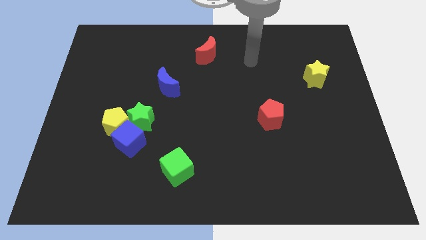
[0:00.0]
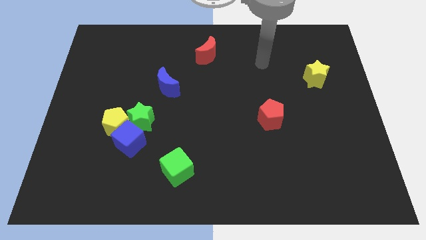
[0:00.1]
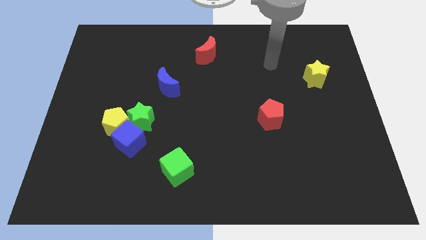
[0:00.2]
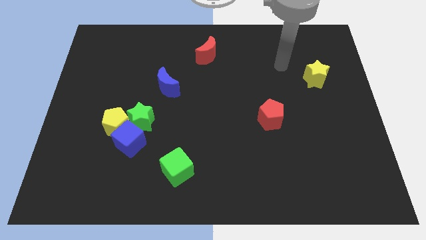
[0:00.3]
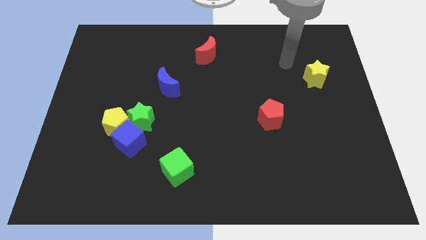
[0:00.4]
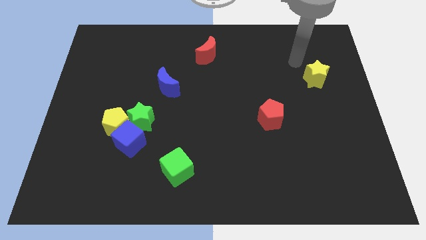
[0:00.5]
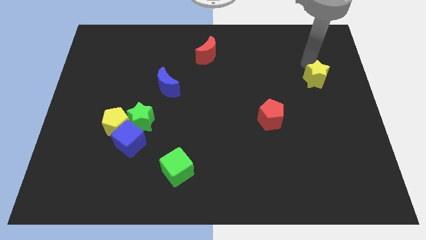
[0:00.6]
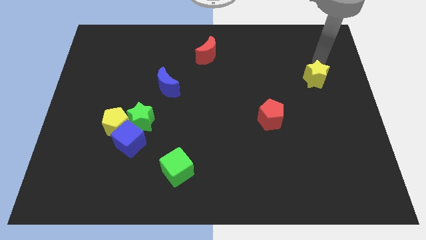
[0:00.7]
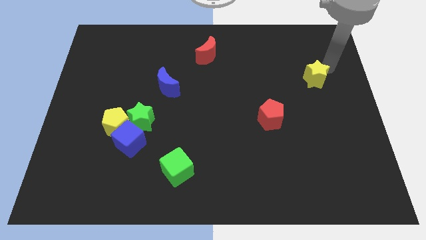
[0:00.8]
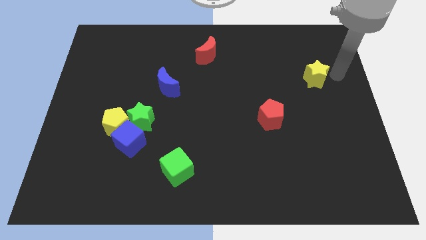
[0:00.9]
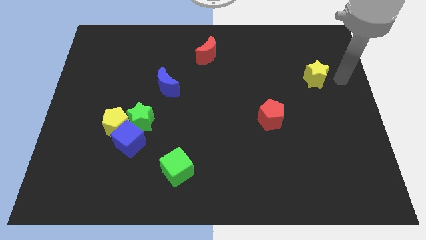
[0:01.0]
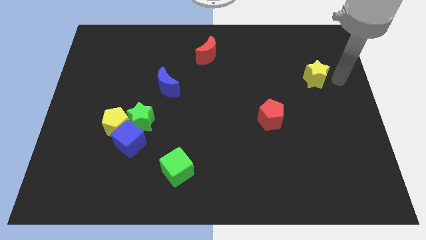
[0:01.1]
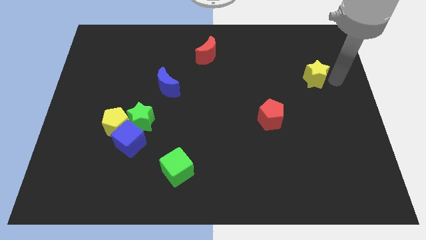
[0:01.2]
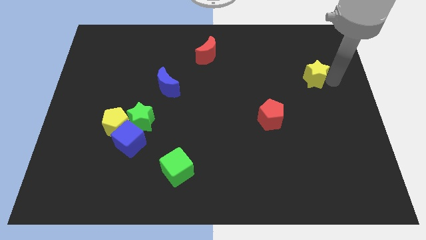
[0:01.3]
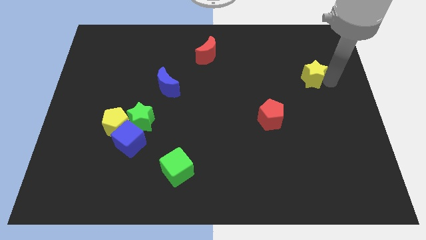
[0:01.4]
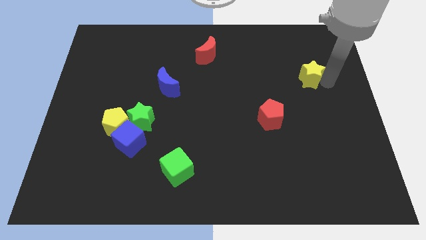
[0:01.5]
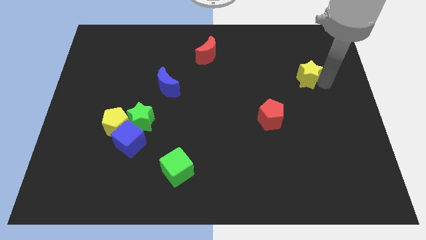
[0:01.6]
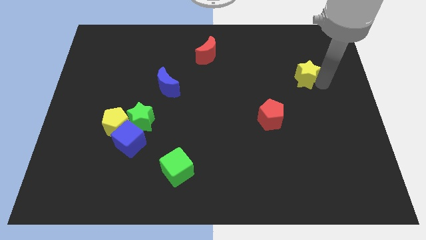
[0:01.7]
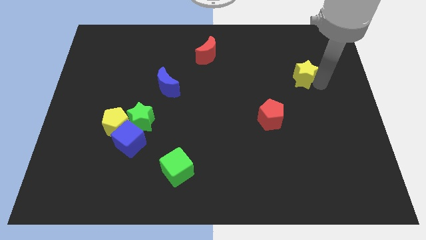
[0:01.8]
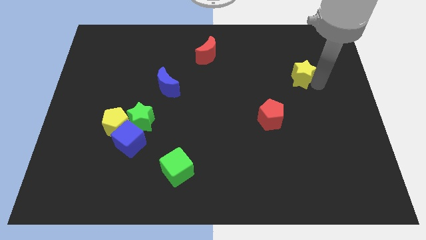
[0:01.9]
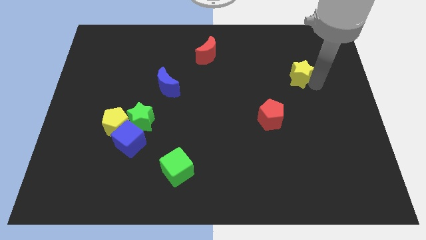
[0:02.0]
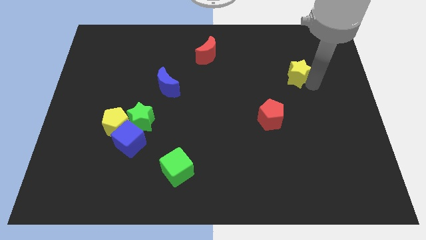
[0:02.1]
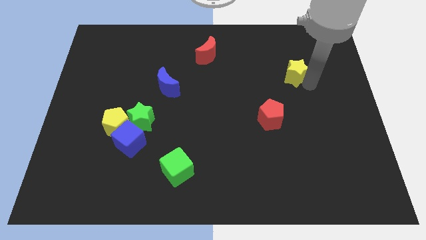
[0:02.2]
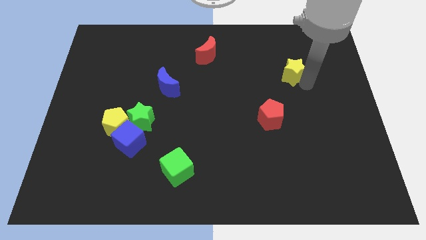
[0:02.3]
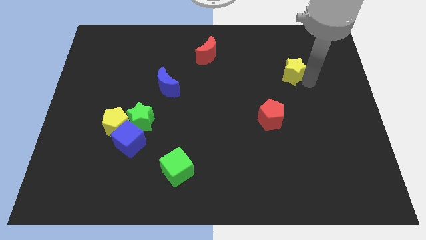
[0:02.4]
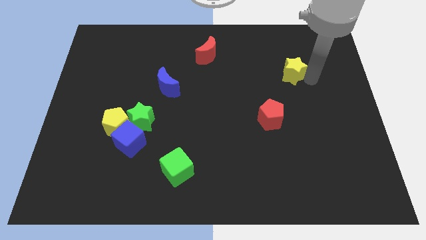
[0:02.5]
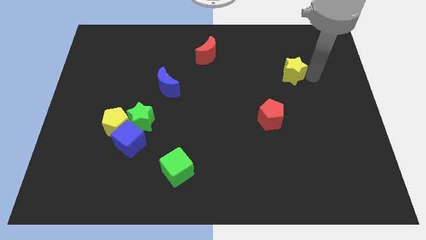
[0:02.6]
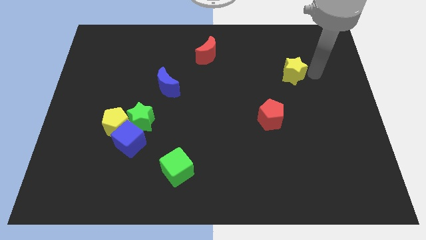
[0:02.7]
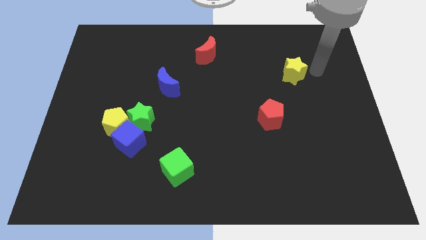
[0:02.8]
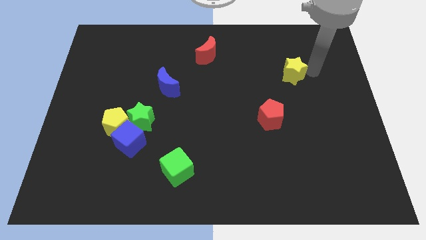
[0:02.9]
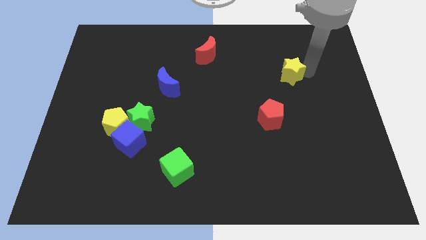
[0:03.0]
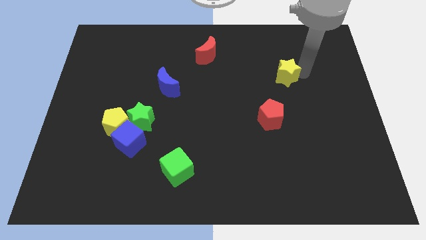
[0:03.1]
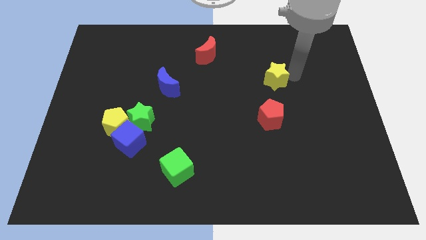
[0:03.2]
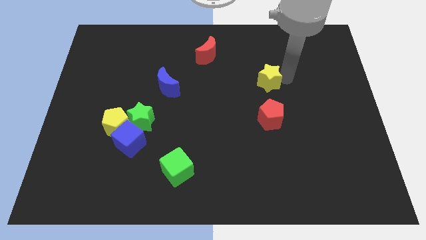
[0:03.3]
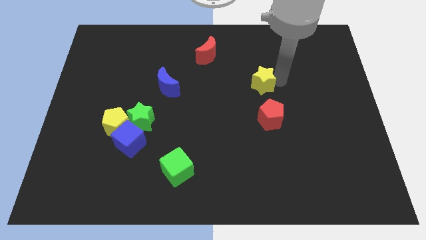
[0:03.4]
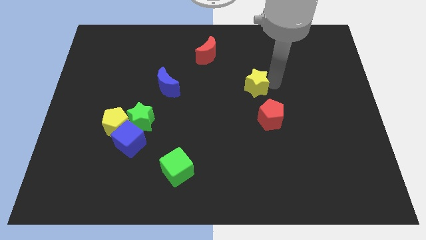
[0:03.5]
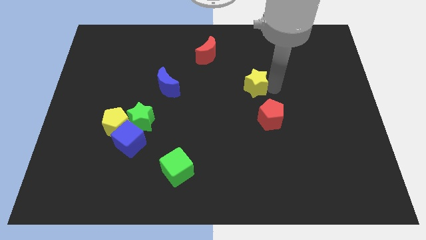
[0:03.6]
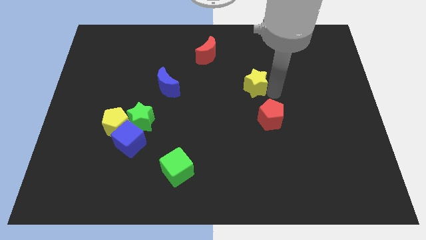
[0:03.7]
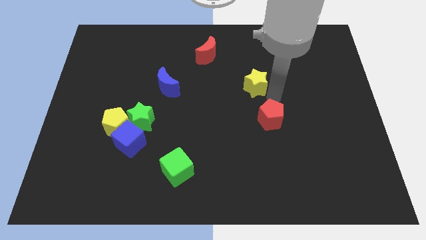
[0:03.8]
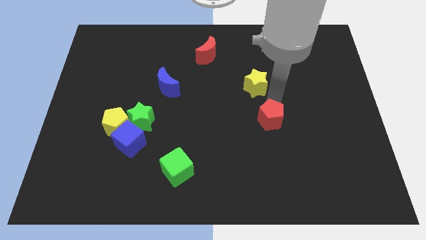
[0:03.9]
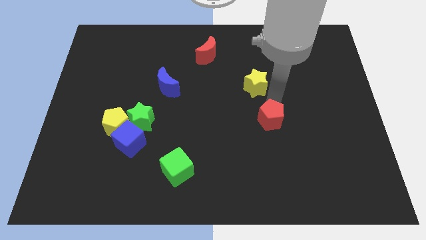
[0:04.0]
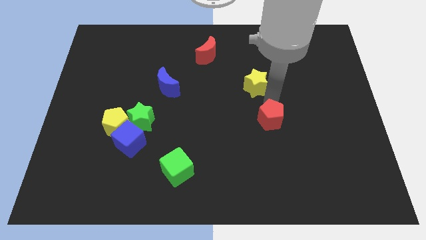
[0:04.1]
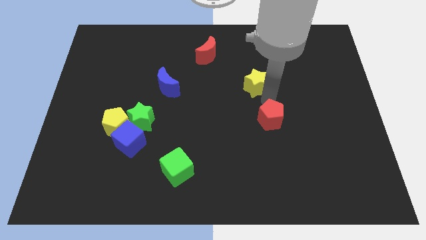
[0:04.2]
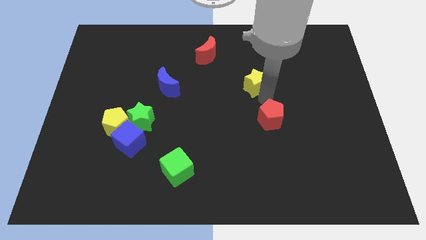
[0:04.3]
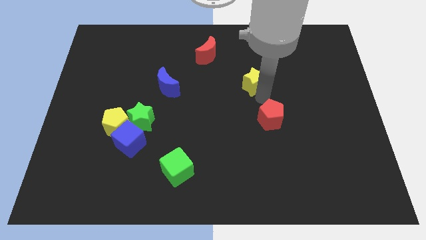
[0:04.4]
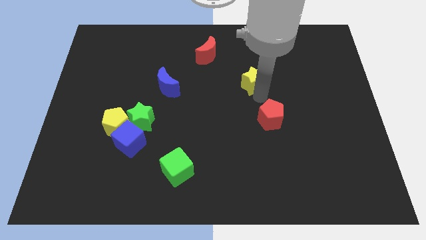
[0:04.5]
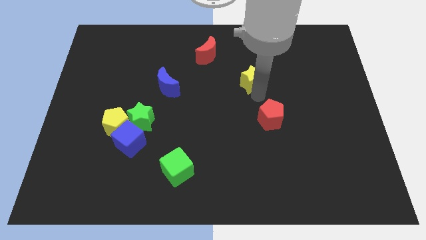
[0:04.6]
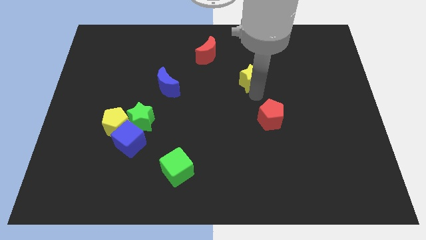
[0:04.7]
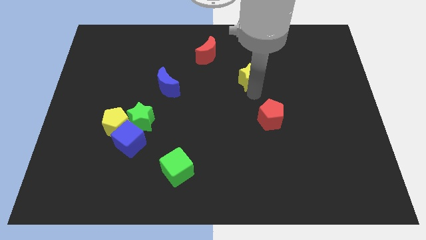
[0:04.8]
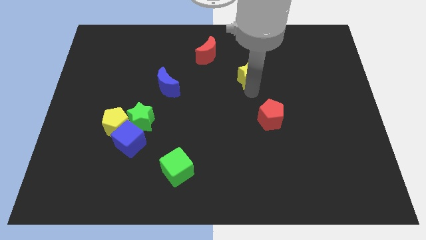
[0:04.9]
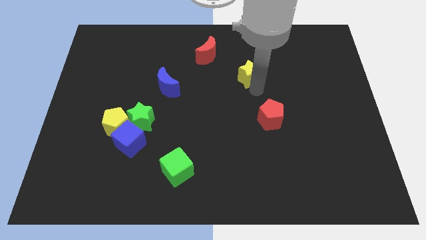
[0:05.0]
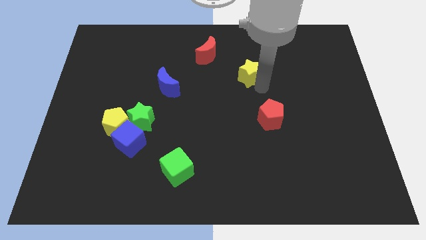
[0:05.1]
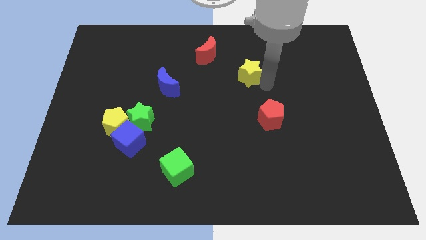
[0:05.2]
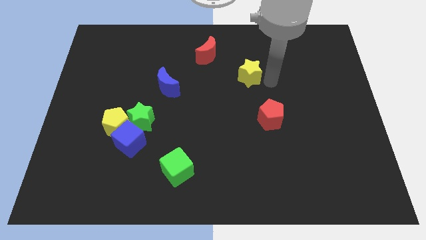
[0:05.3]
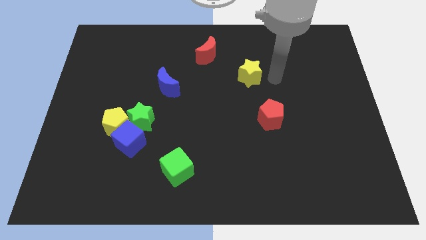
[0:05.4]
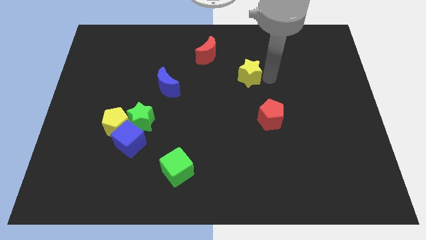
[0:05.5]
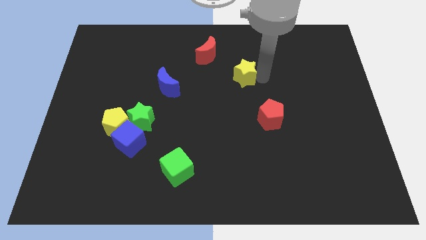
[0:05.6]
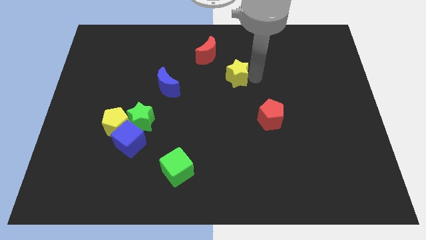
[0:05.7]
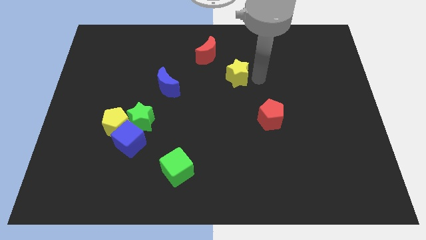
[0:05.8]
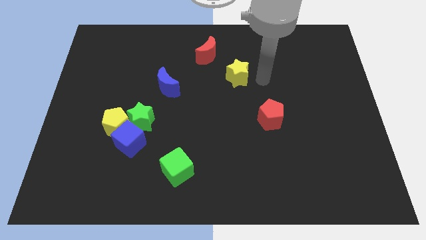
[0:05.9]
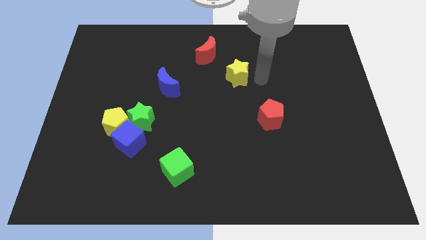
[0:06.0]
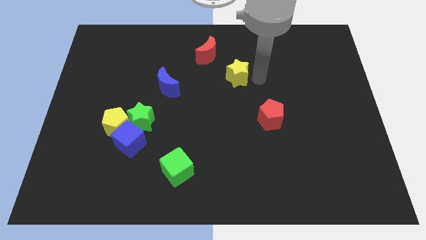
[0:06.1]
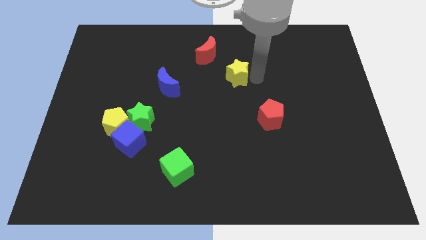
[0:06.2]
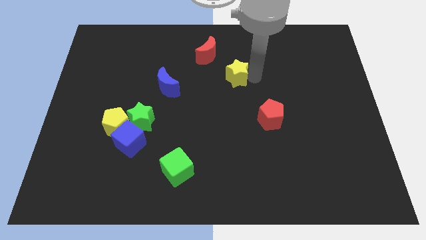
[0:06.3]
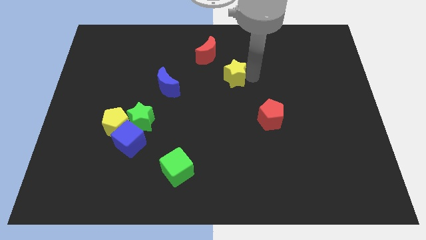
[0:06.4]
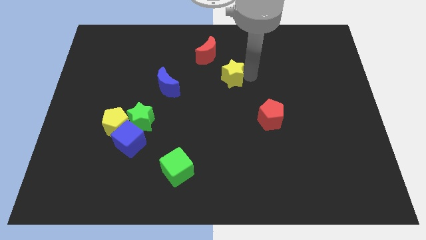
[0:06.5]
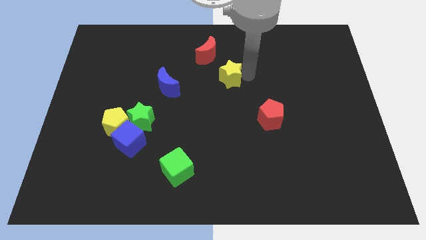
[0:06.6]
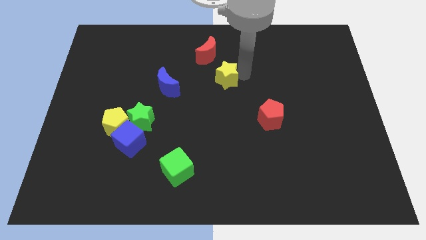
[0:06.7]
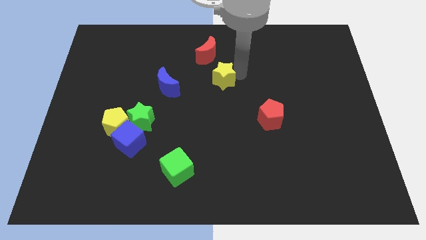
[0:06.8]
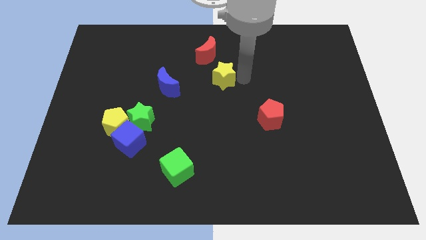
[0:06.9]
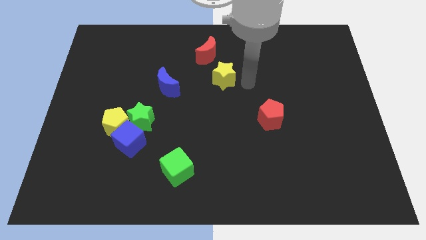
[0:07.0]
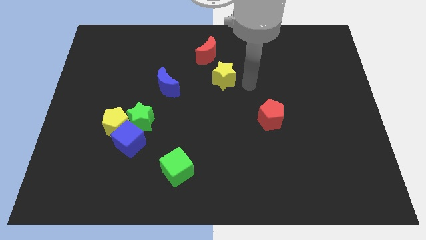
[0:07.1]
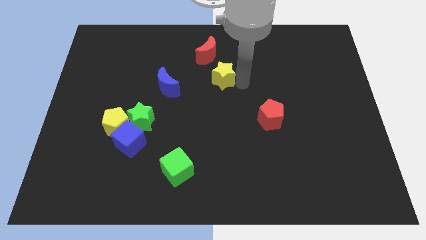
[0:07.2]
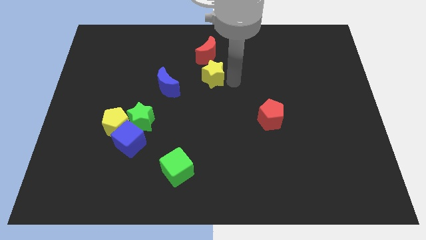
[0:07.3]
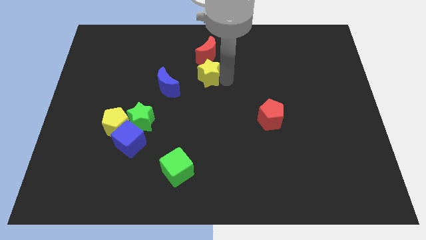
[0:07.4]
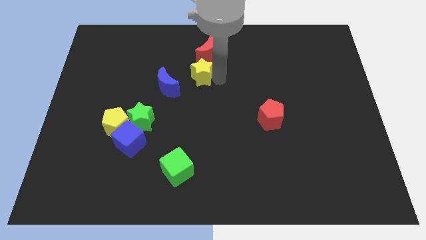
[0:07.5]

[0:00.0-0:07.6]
push the yellow star to the top right side of the blue moon
